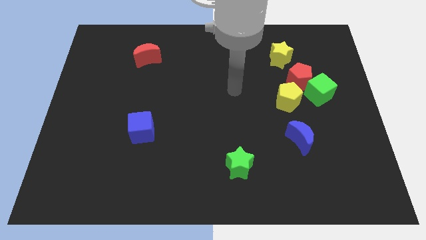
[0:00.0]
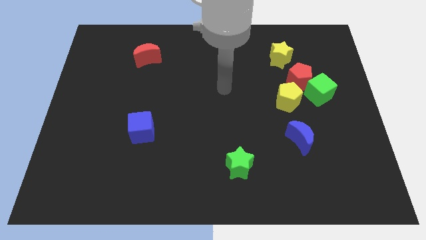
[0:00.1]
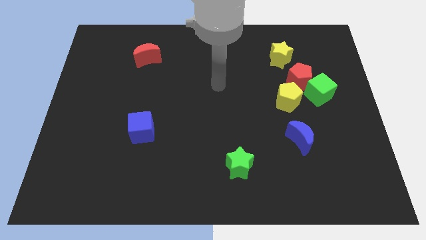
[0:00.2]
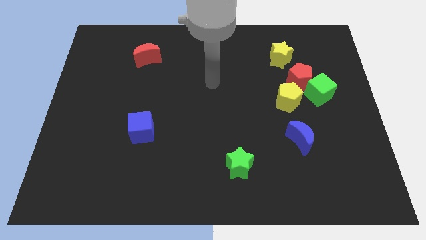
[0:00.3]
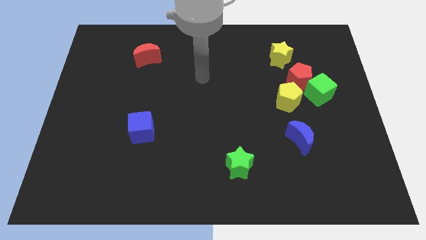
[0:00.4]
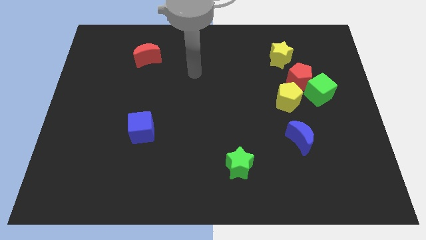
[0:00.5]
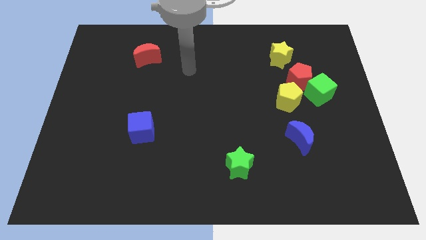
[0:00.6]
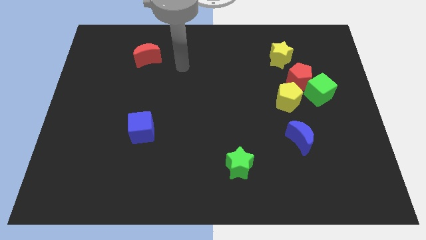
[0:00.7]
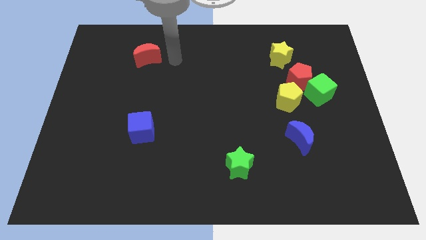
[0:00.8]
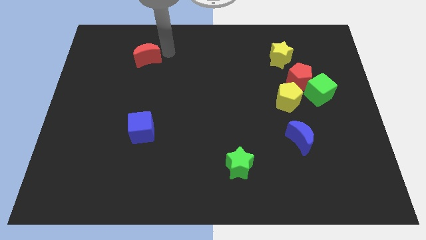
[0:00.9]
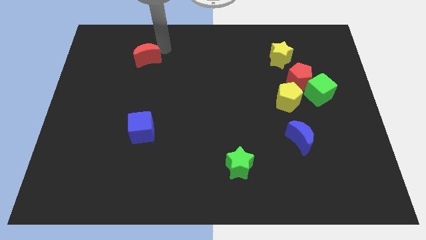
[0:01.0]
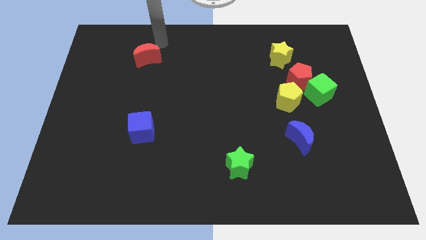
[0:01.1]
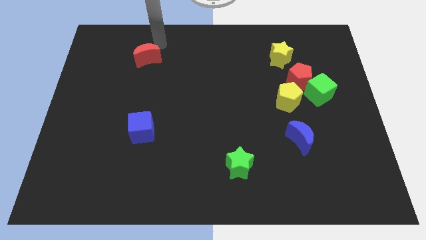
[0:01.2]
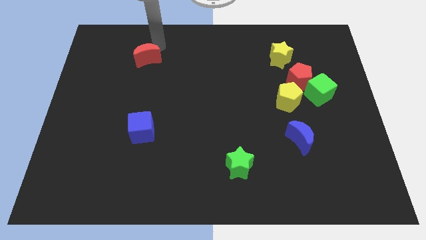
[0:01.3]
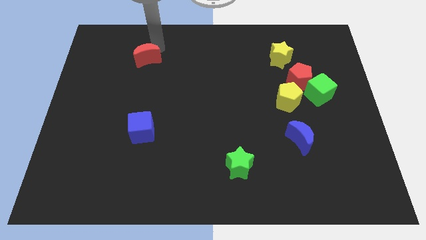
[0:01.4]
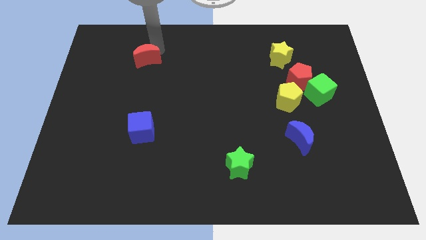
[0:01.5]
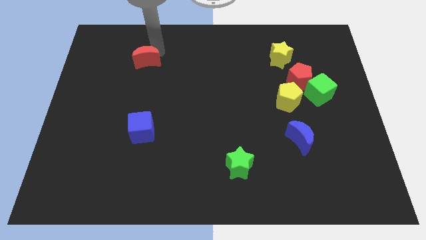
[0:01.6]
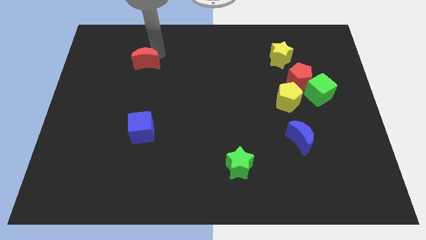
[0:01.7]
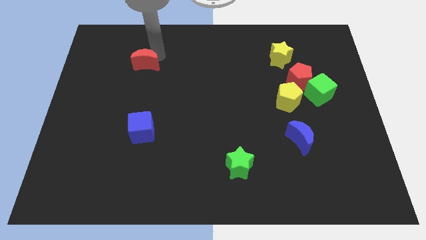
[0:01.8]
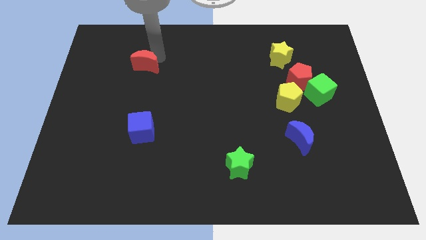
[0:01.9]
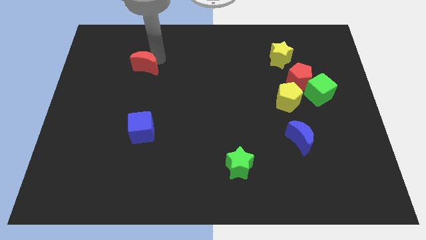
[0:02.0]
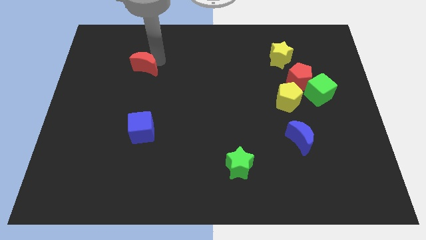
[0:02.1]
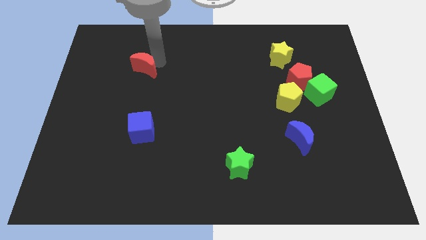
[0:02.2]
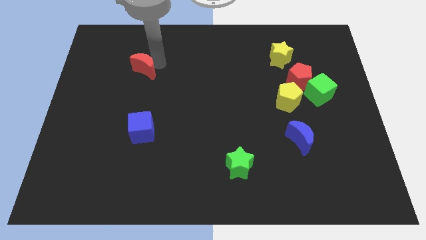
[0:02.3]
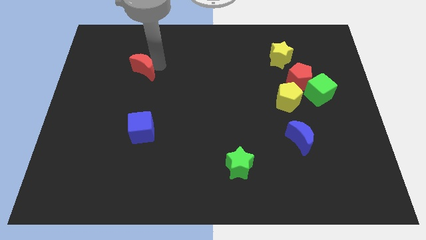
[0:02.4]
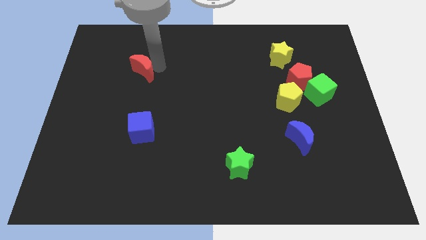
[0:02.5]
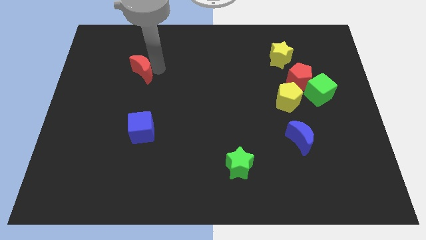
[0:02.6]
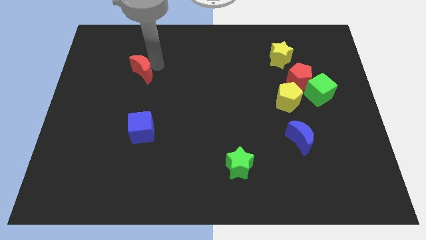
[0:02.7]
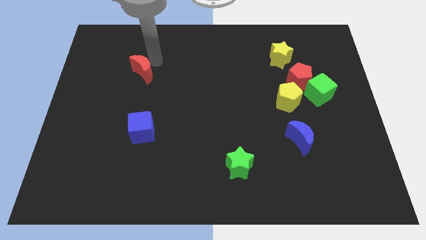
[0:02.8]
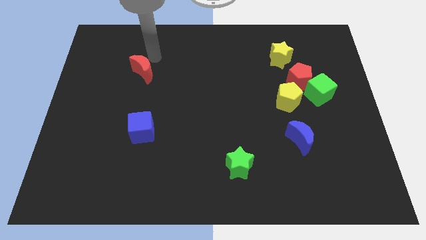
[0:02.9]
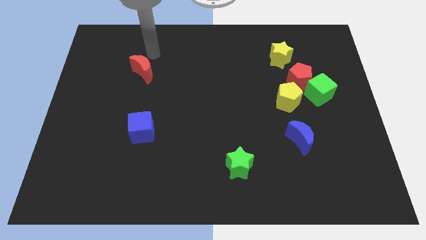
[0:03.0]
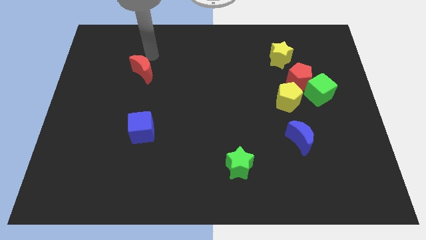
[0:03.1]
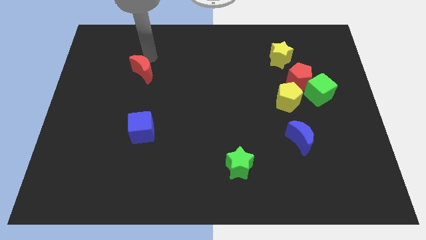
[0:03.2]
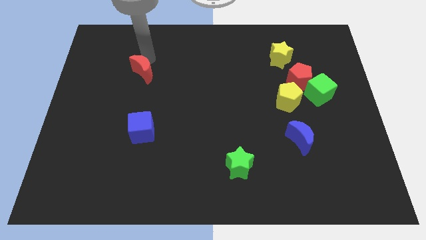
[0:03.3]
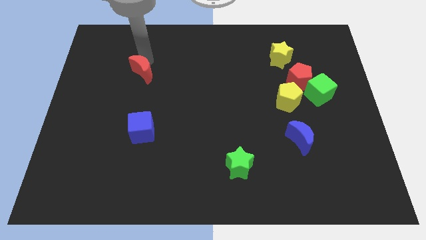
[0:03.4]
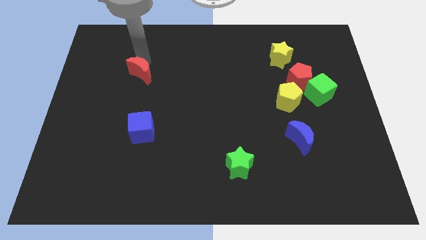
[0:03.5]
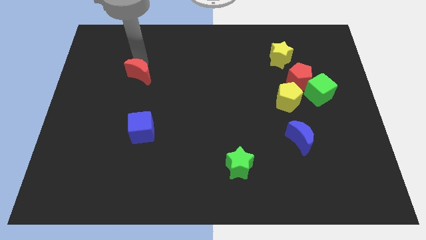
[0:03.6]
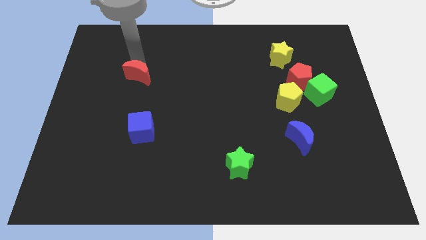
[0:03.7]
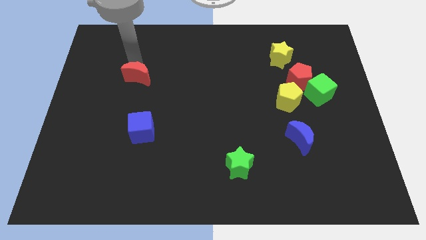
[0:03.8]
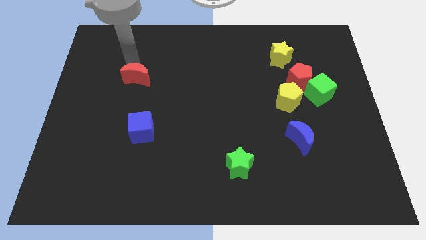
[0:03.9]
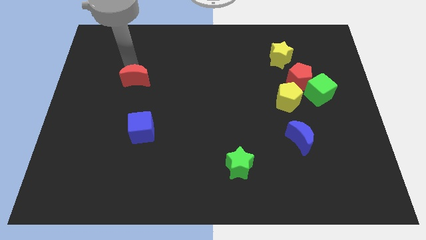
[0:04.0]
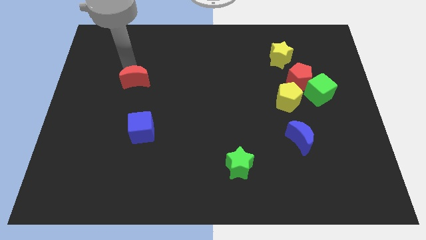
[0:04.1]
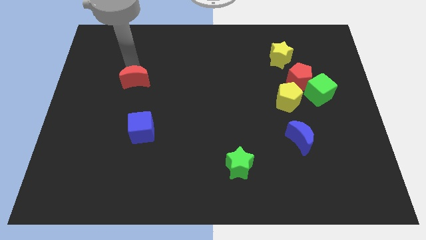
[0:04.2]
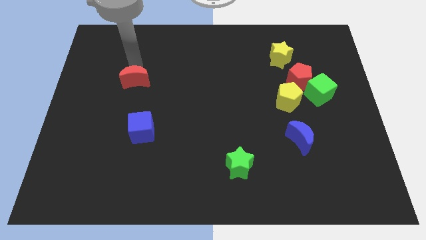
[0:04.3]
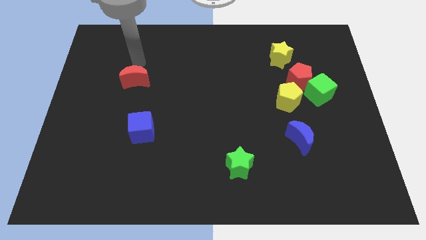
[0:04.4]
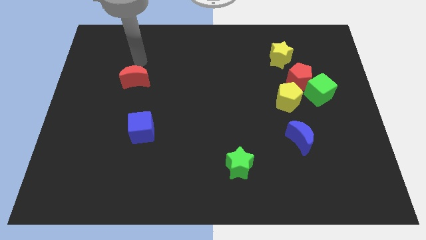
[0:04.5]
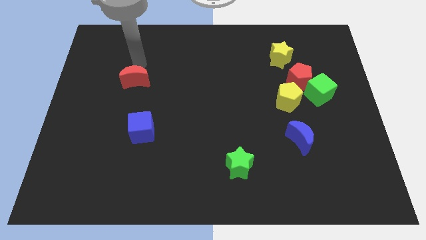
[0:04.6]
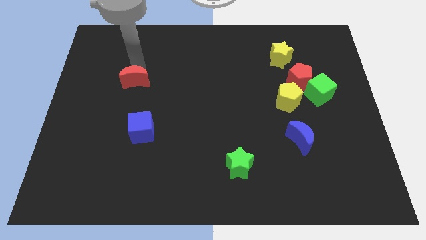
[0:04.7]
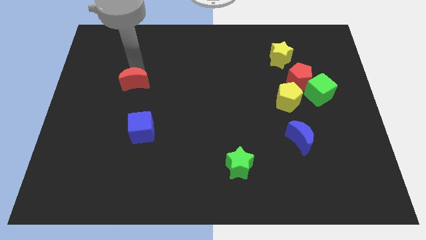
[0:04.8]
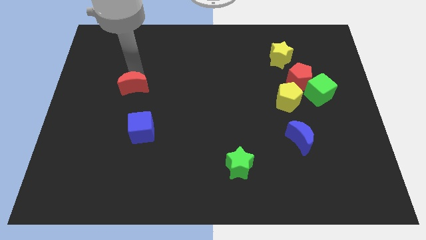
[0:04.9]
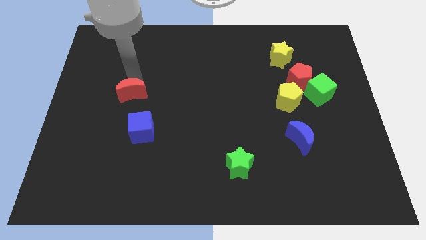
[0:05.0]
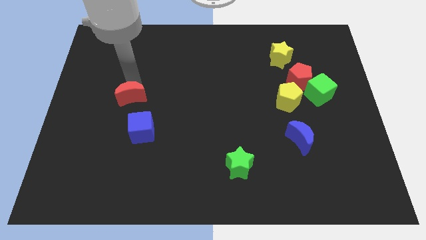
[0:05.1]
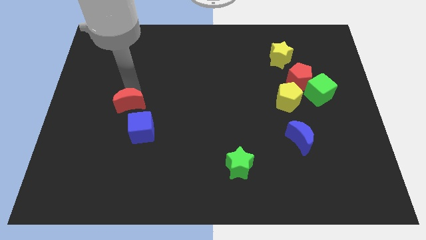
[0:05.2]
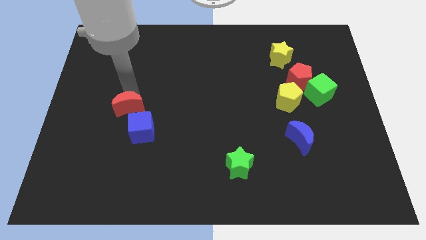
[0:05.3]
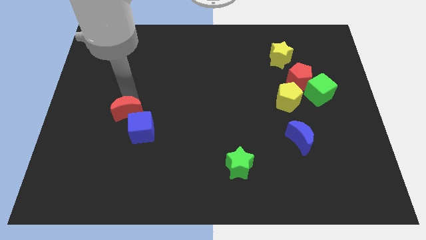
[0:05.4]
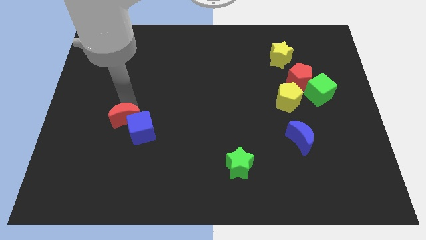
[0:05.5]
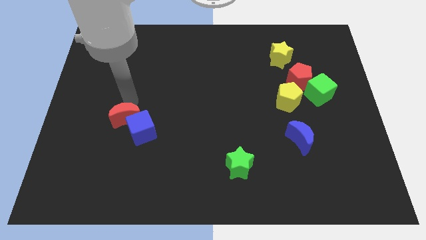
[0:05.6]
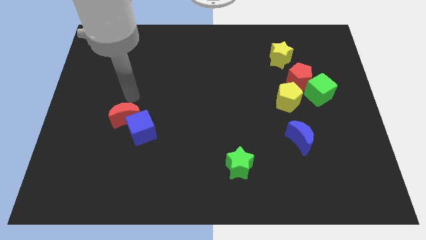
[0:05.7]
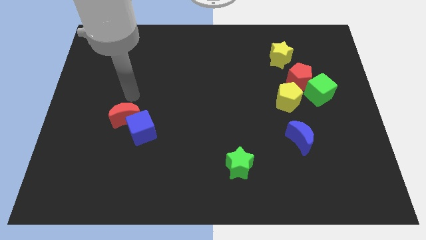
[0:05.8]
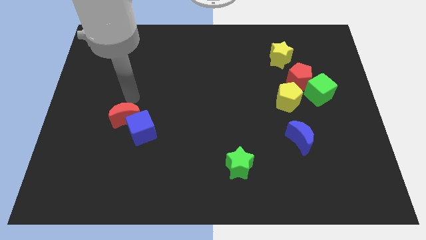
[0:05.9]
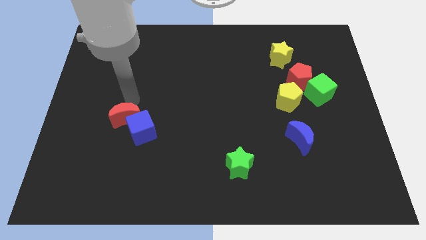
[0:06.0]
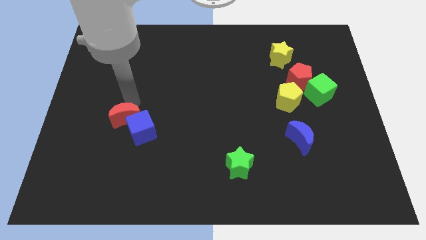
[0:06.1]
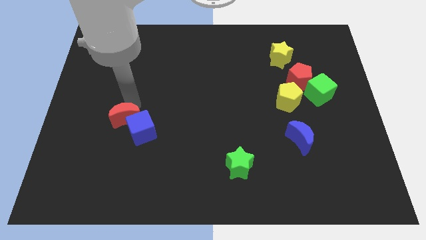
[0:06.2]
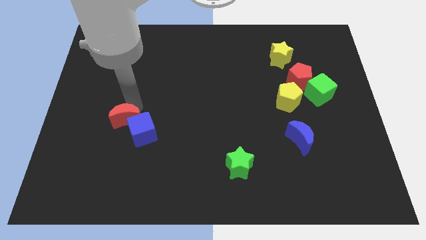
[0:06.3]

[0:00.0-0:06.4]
move the red moon down

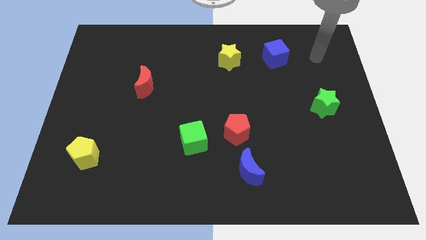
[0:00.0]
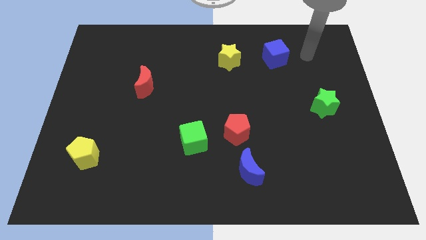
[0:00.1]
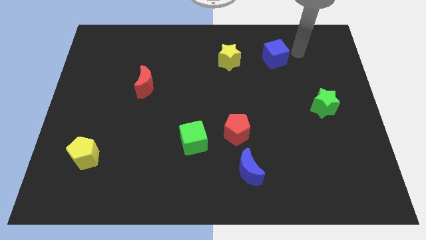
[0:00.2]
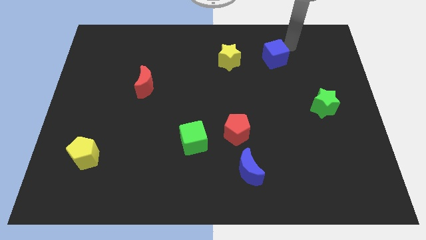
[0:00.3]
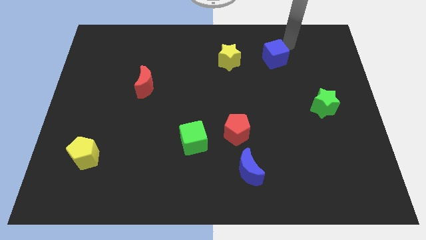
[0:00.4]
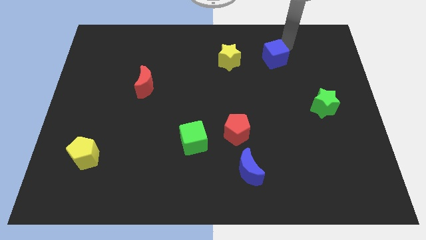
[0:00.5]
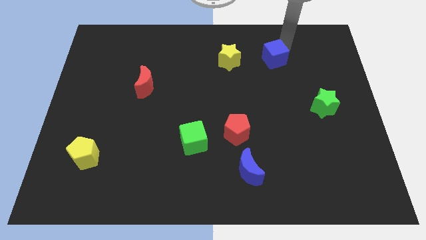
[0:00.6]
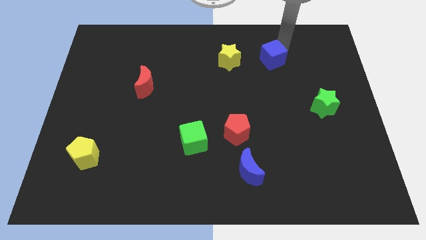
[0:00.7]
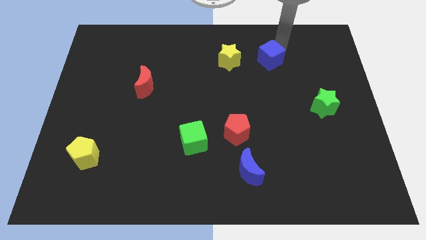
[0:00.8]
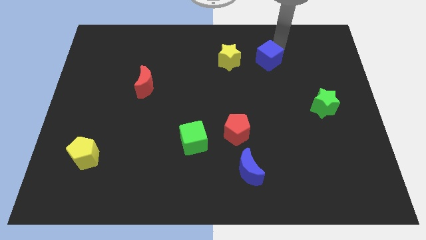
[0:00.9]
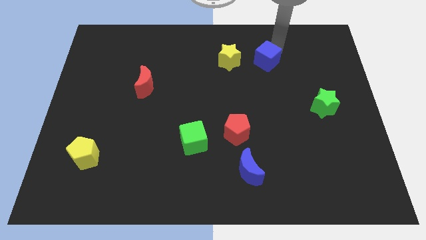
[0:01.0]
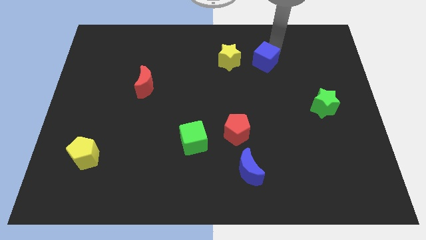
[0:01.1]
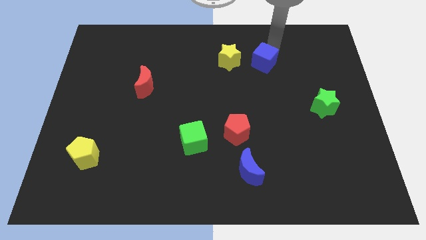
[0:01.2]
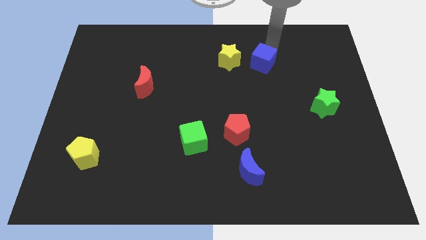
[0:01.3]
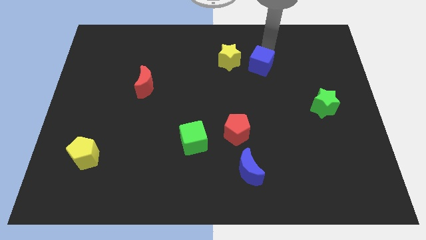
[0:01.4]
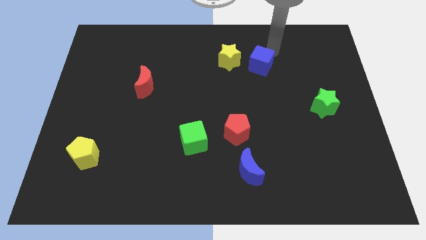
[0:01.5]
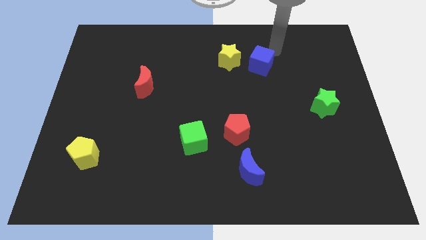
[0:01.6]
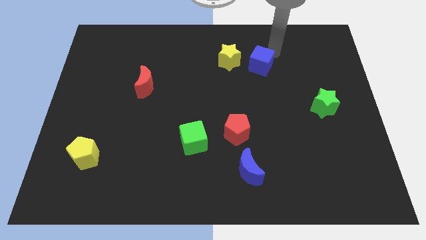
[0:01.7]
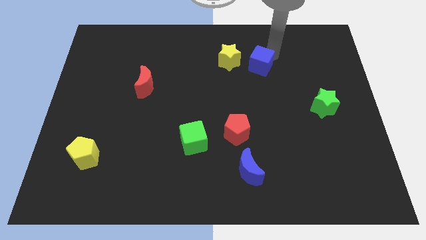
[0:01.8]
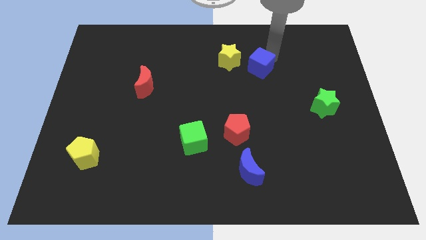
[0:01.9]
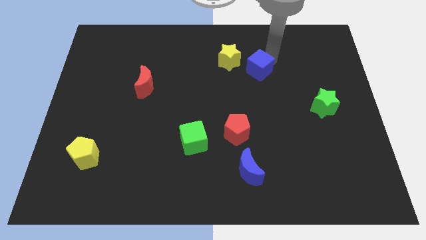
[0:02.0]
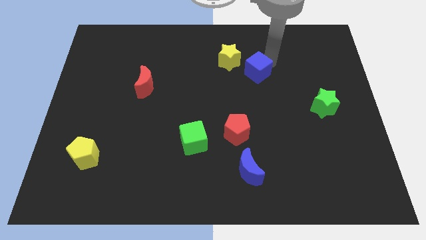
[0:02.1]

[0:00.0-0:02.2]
slightly slide the blue cube diagonally down and left
